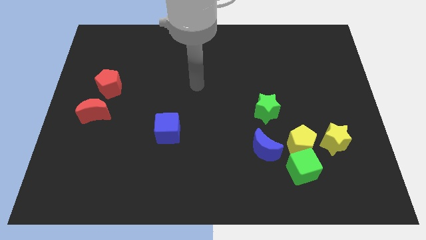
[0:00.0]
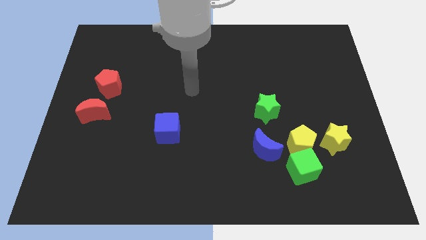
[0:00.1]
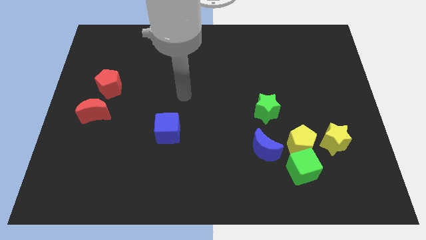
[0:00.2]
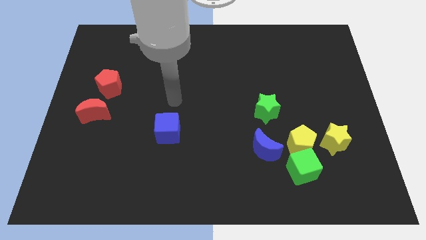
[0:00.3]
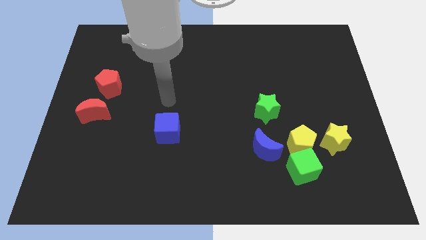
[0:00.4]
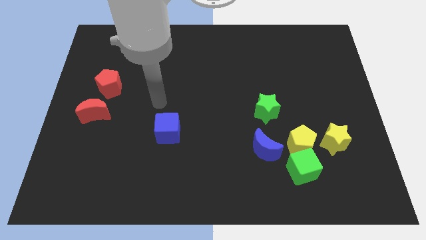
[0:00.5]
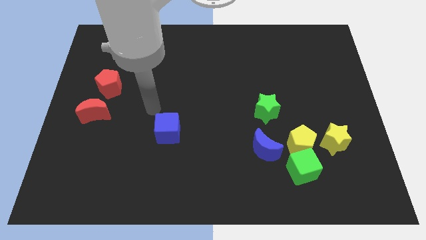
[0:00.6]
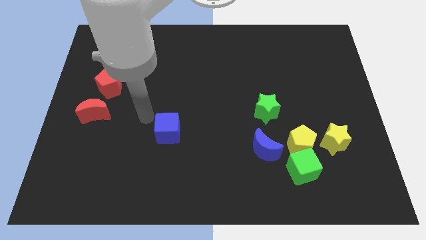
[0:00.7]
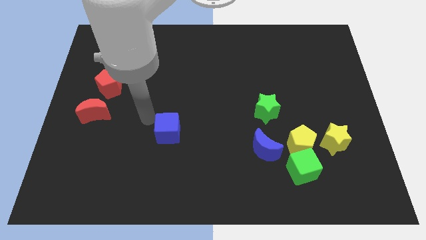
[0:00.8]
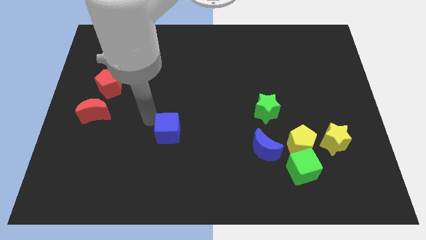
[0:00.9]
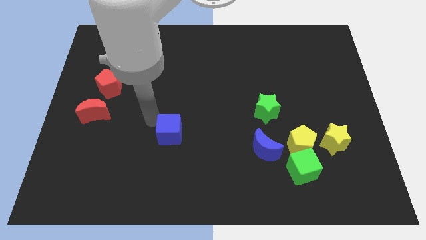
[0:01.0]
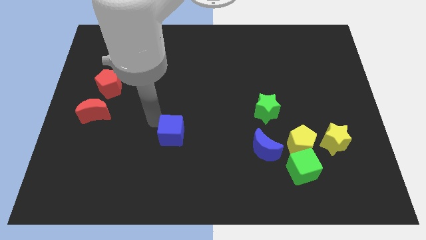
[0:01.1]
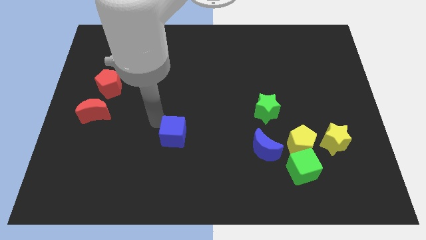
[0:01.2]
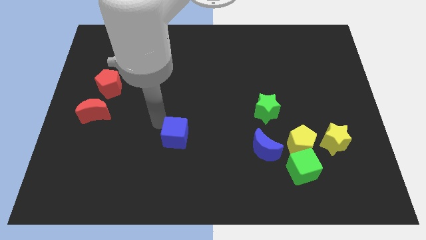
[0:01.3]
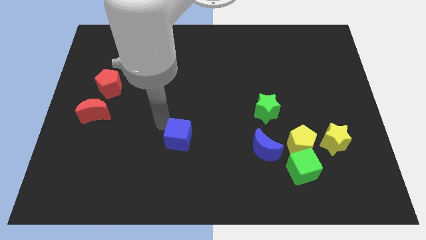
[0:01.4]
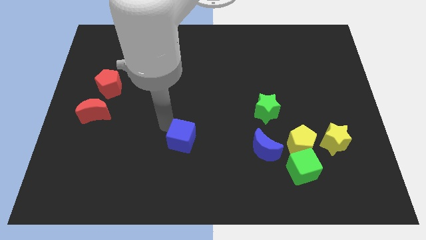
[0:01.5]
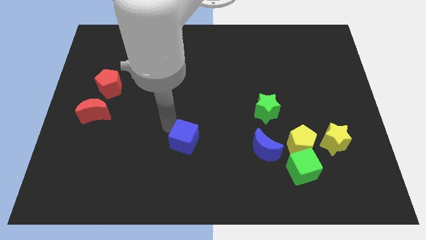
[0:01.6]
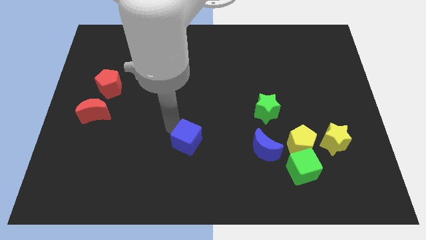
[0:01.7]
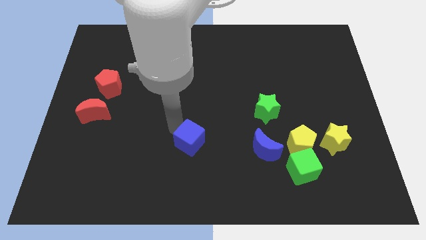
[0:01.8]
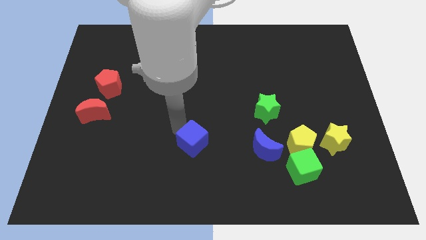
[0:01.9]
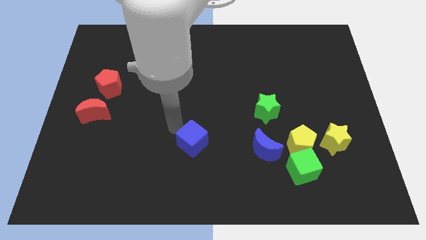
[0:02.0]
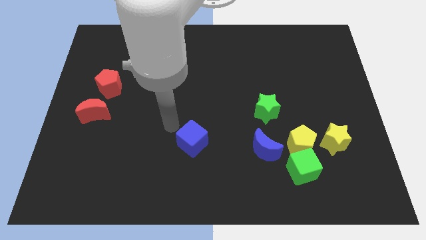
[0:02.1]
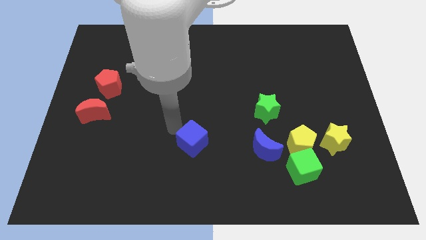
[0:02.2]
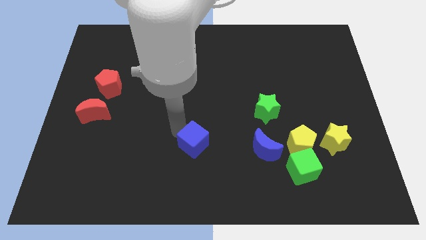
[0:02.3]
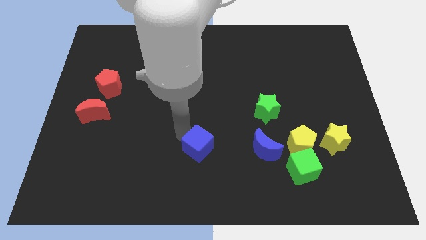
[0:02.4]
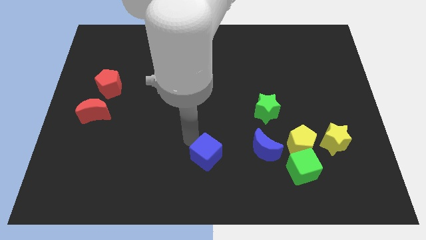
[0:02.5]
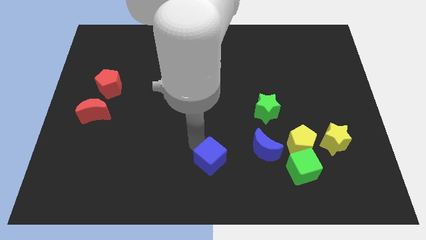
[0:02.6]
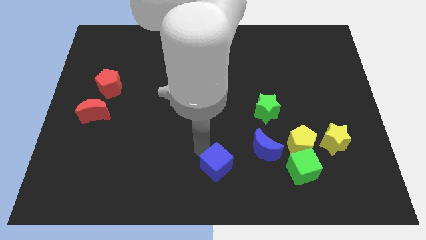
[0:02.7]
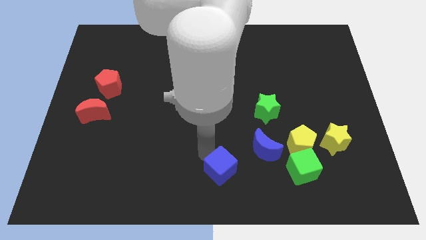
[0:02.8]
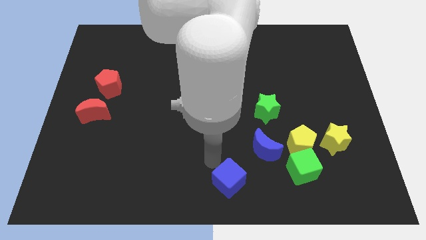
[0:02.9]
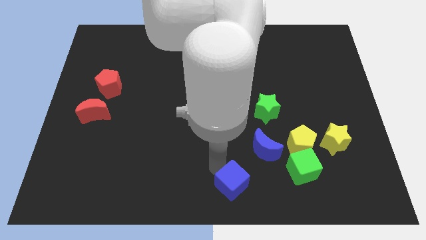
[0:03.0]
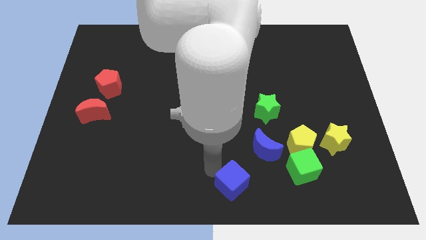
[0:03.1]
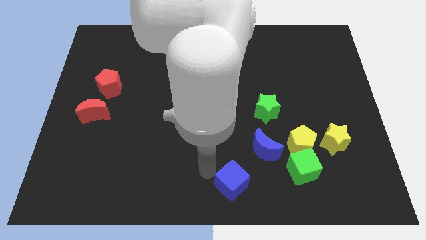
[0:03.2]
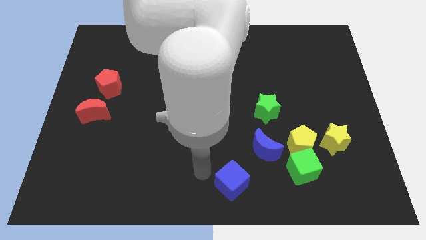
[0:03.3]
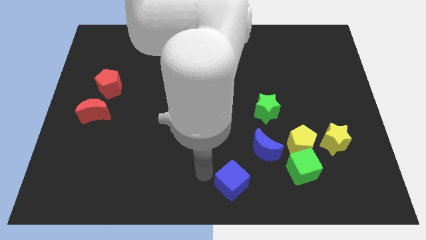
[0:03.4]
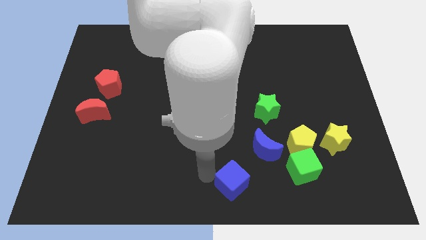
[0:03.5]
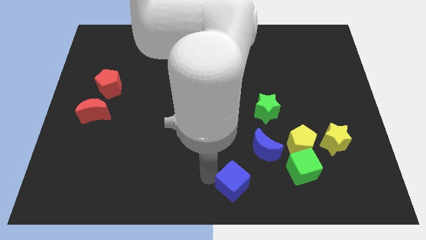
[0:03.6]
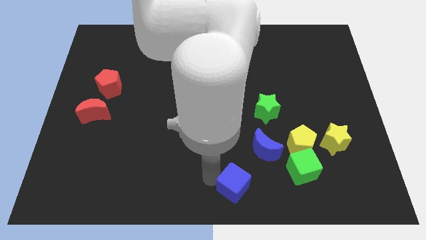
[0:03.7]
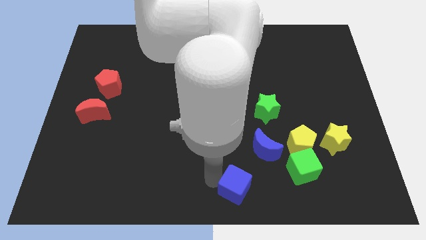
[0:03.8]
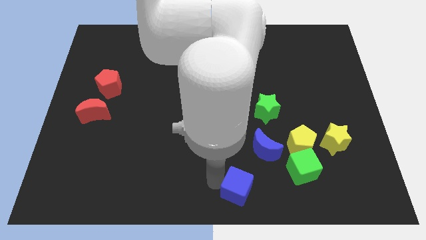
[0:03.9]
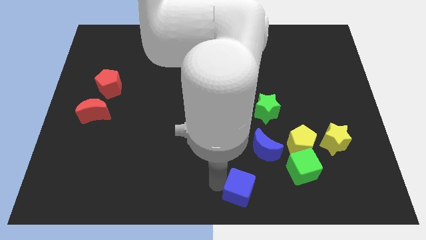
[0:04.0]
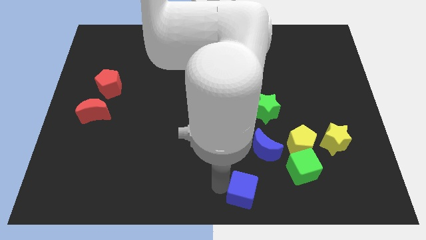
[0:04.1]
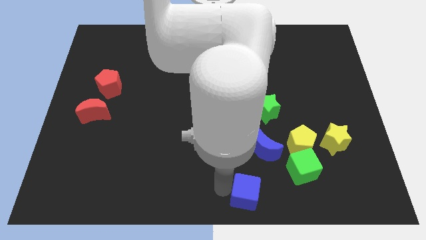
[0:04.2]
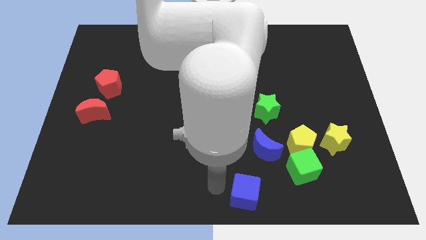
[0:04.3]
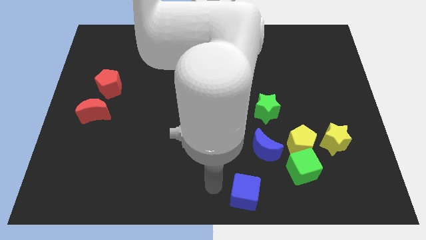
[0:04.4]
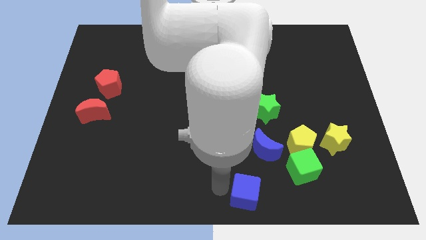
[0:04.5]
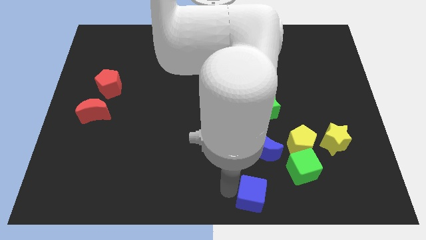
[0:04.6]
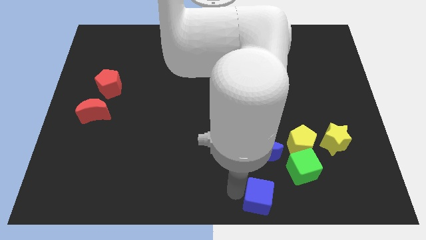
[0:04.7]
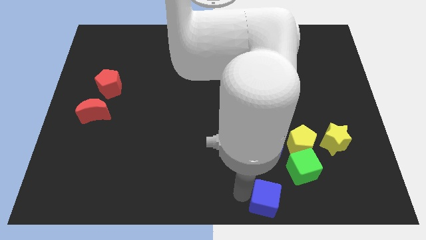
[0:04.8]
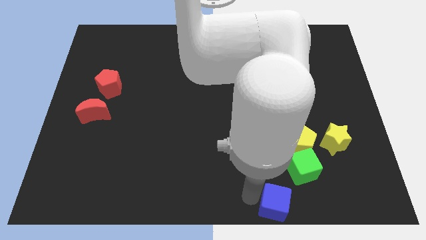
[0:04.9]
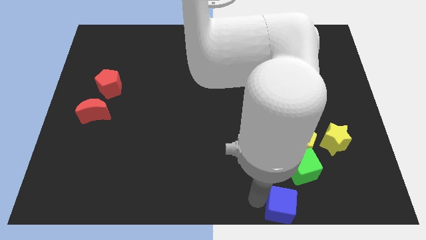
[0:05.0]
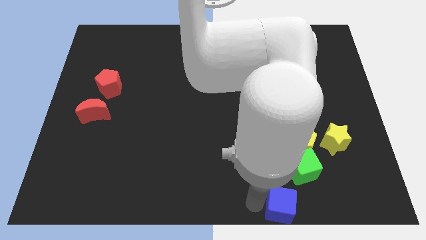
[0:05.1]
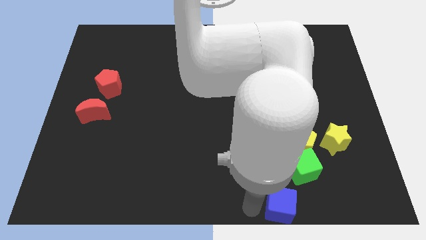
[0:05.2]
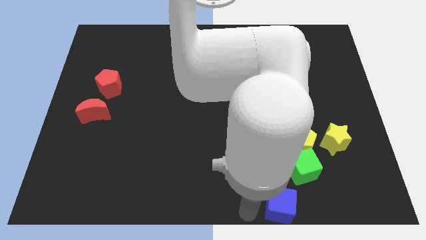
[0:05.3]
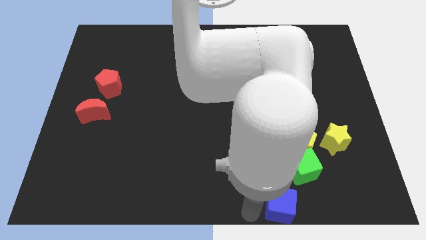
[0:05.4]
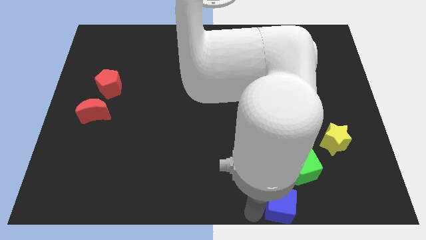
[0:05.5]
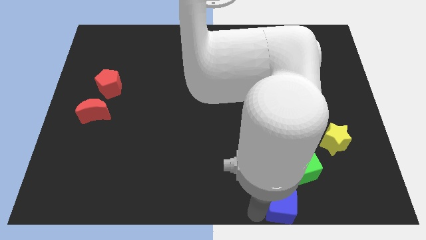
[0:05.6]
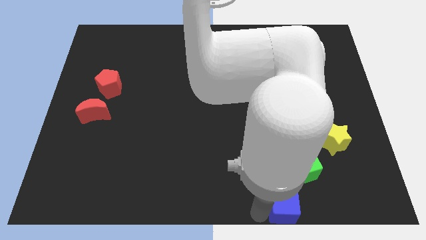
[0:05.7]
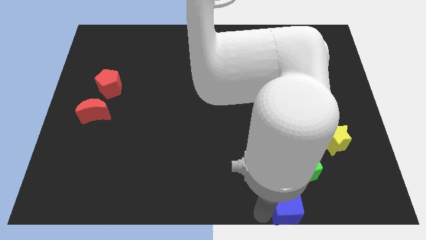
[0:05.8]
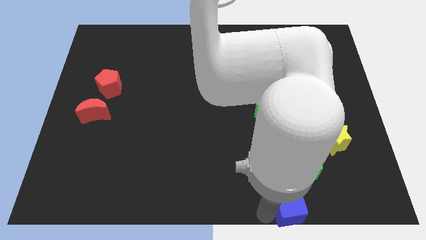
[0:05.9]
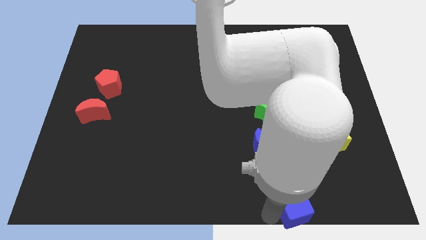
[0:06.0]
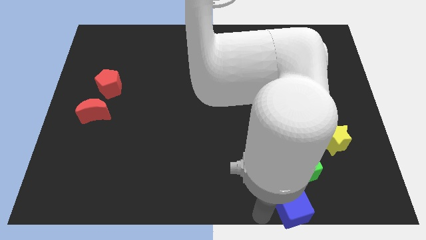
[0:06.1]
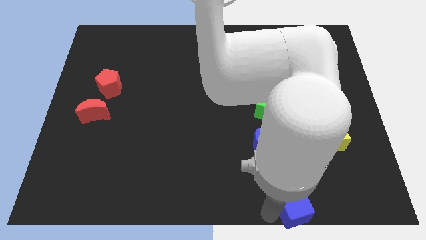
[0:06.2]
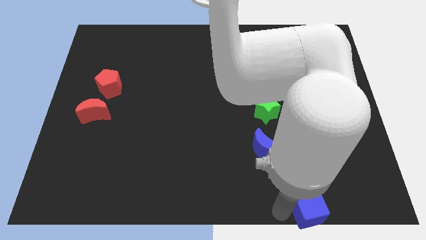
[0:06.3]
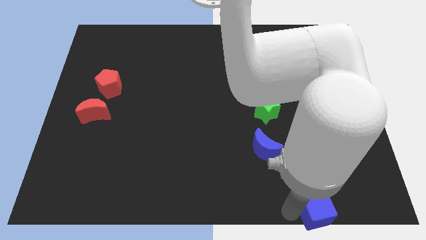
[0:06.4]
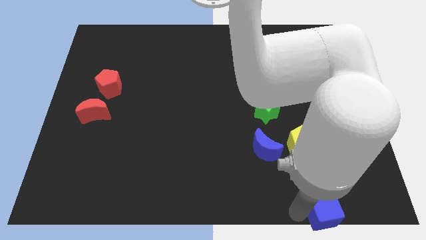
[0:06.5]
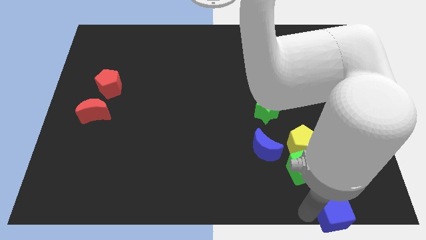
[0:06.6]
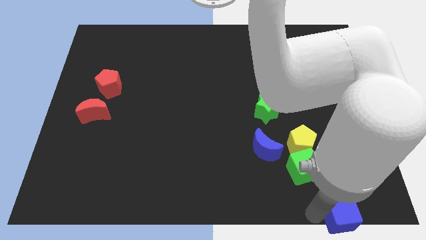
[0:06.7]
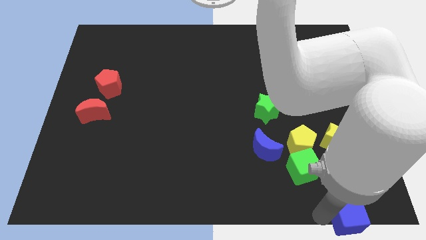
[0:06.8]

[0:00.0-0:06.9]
slide the blue cube to the bottom right of the board
